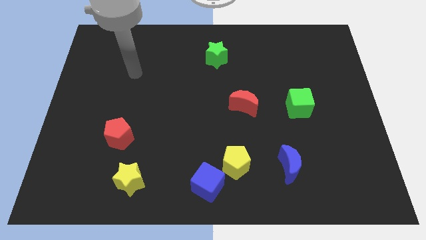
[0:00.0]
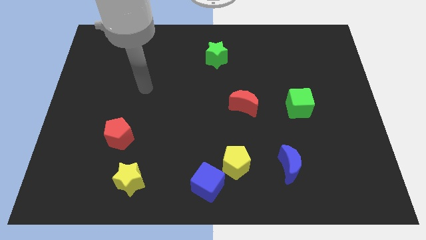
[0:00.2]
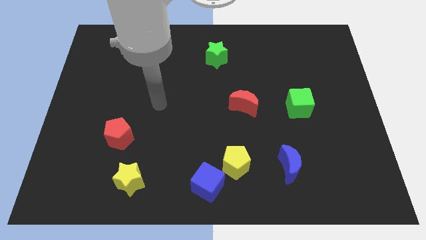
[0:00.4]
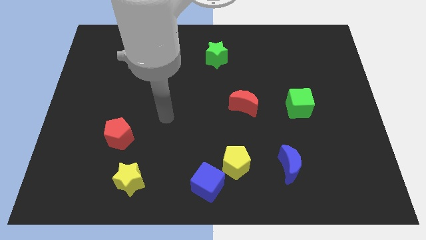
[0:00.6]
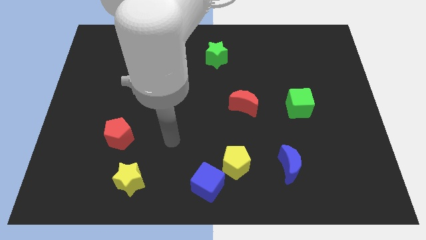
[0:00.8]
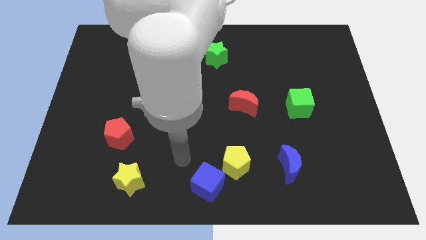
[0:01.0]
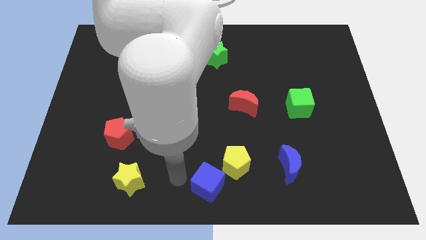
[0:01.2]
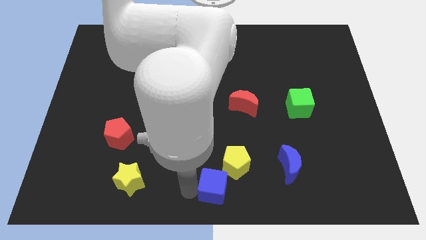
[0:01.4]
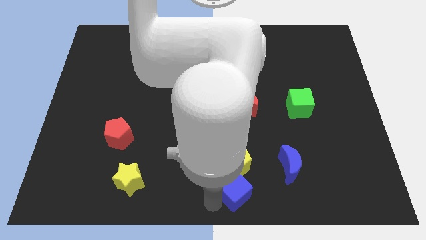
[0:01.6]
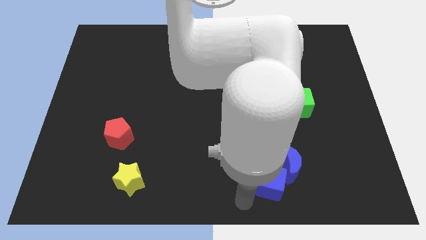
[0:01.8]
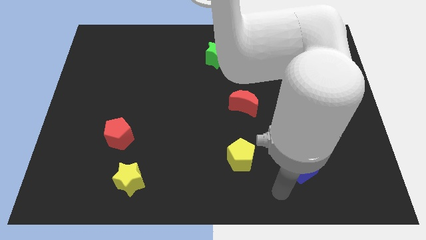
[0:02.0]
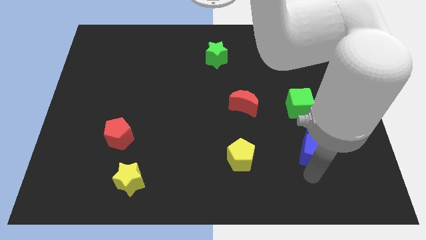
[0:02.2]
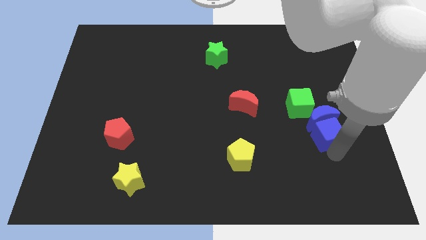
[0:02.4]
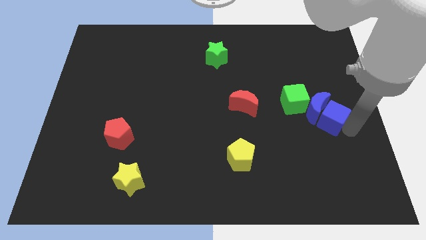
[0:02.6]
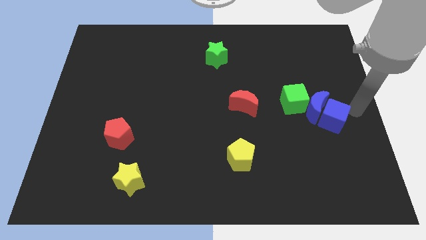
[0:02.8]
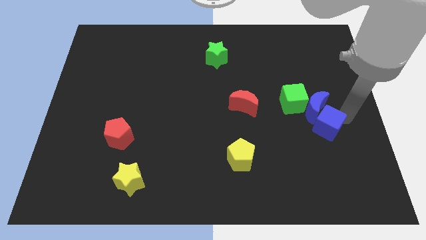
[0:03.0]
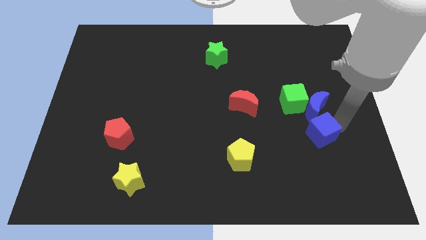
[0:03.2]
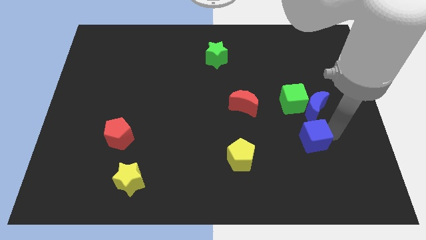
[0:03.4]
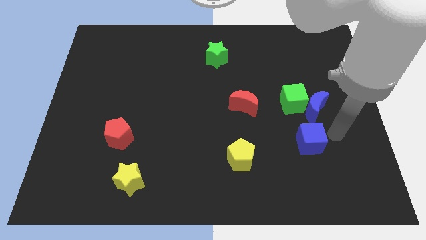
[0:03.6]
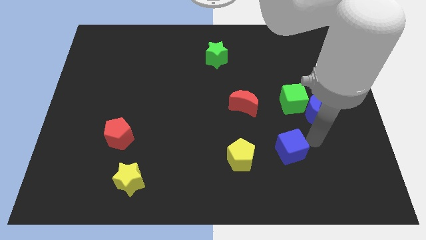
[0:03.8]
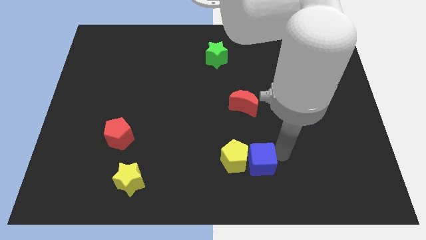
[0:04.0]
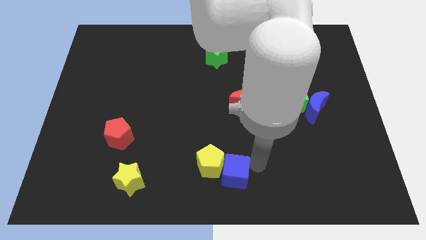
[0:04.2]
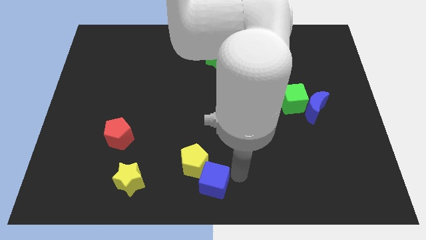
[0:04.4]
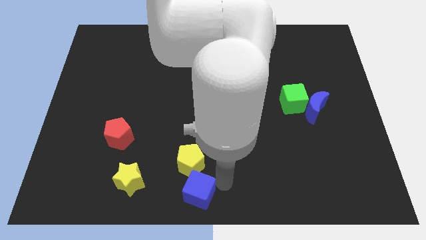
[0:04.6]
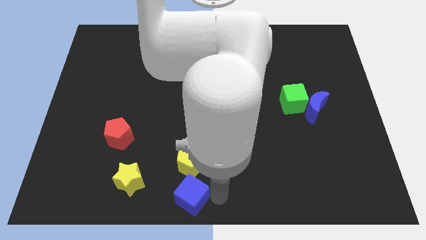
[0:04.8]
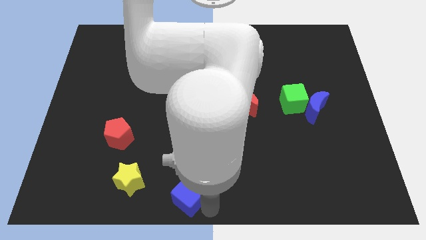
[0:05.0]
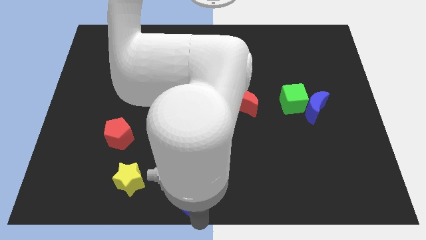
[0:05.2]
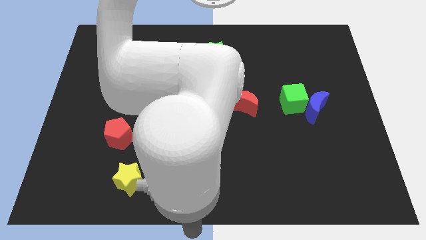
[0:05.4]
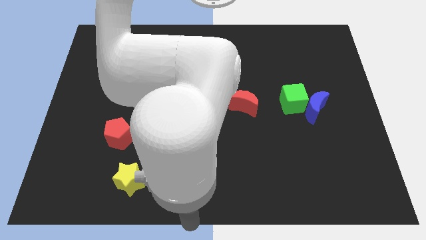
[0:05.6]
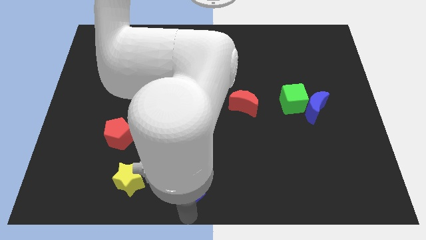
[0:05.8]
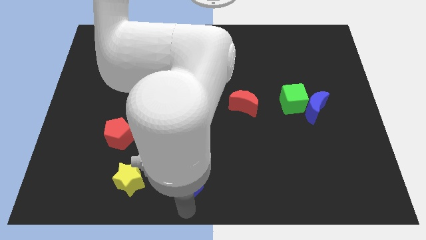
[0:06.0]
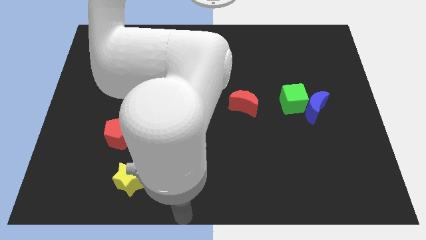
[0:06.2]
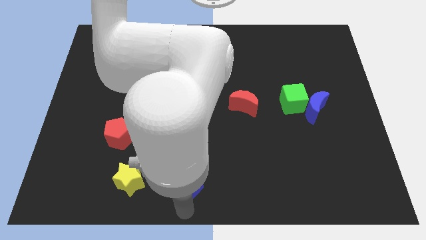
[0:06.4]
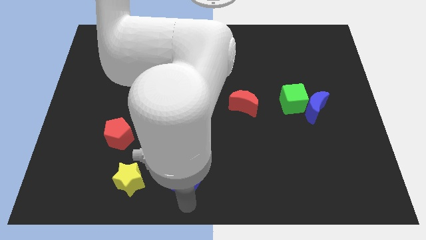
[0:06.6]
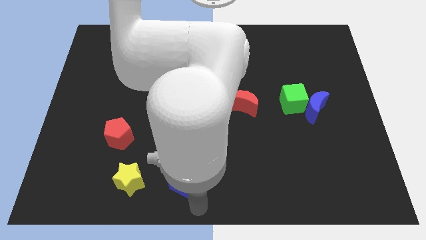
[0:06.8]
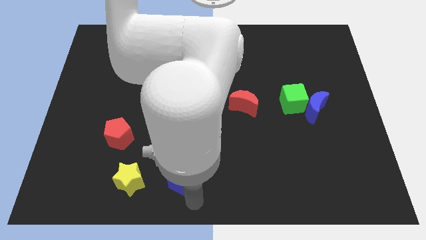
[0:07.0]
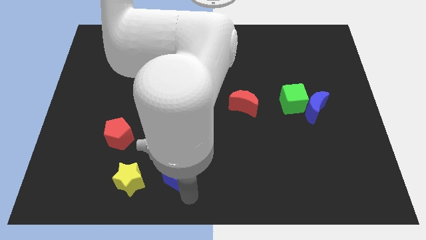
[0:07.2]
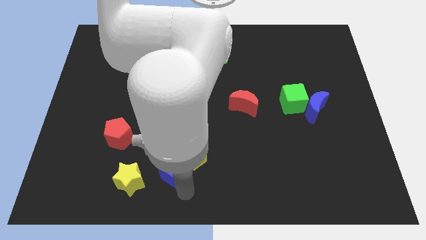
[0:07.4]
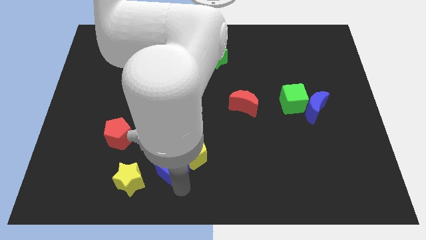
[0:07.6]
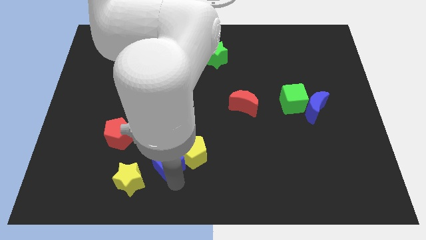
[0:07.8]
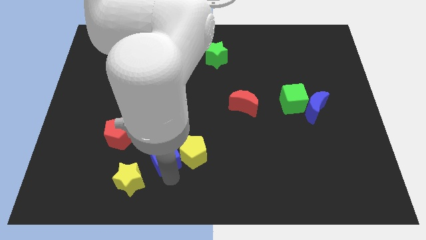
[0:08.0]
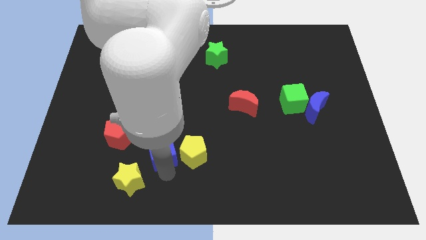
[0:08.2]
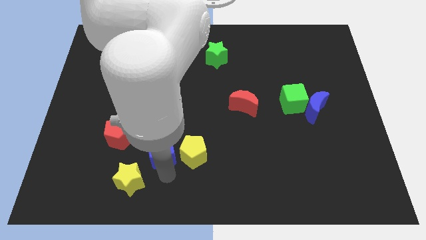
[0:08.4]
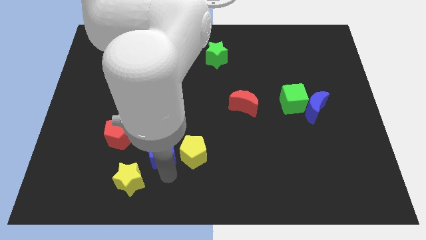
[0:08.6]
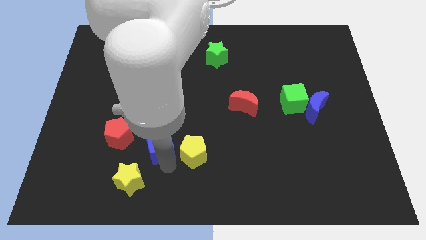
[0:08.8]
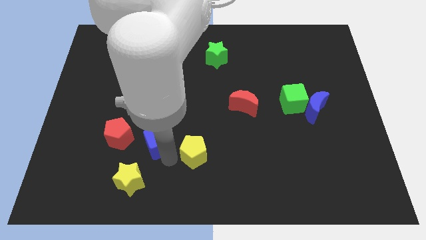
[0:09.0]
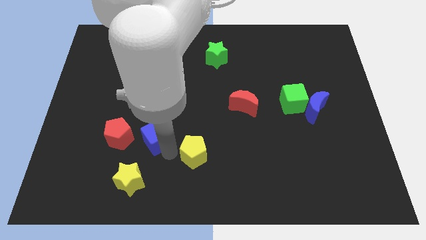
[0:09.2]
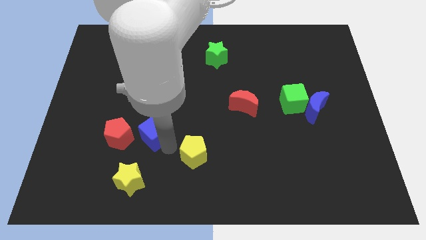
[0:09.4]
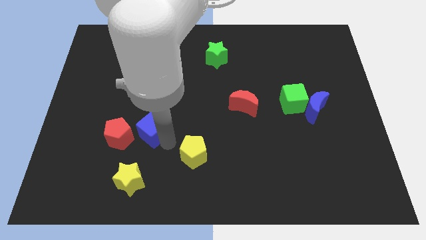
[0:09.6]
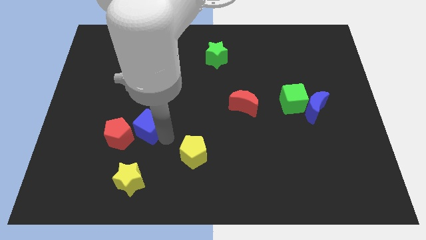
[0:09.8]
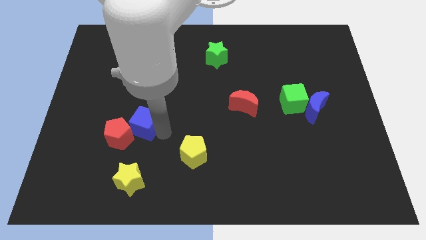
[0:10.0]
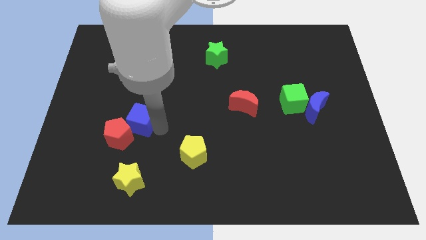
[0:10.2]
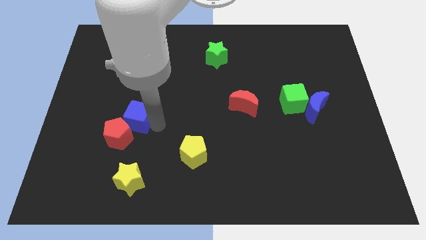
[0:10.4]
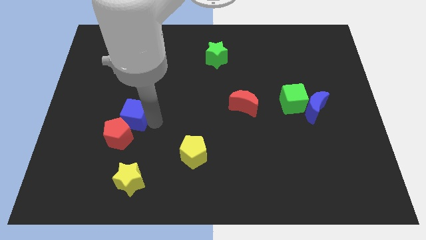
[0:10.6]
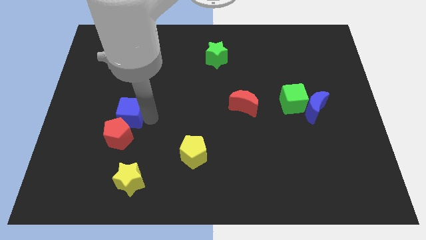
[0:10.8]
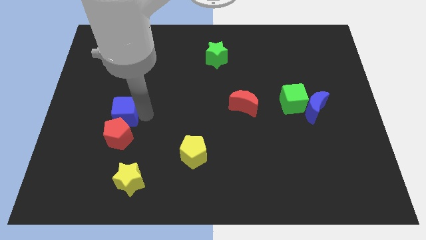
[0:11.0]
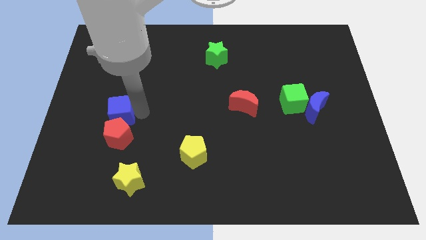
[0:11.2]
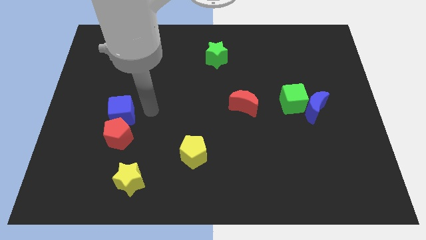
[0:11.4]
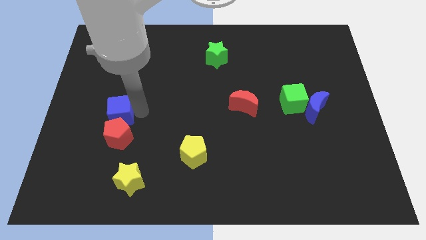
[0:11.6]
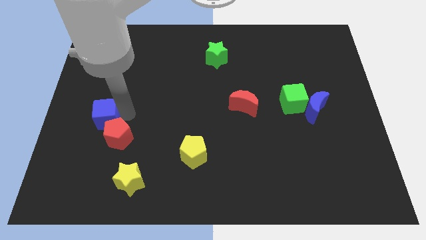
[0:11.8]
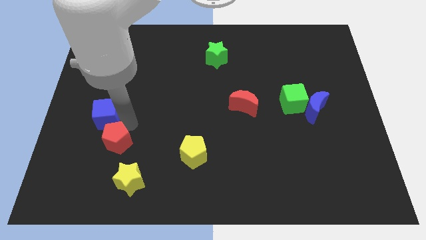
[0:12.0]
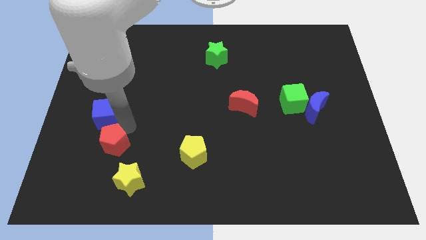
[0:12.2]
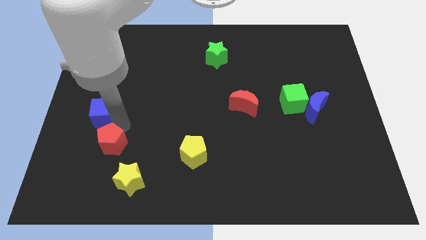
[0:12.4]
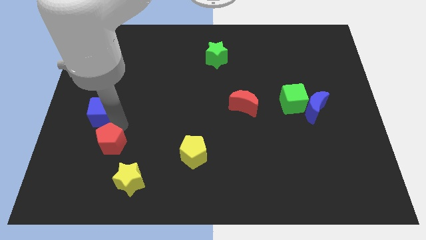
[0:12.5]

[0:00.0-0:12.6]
move the blue cube to the center left
